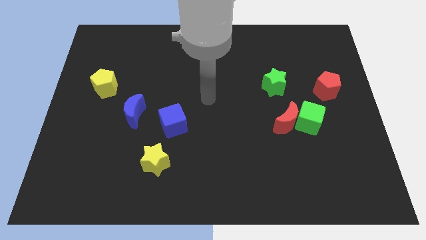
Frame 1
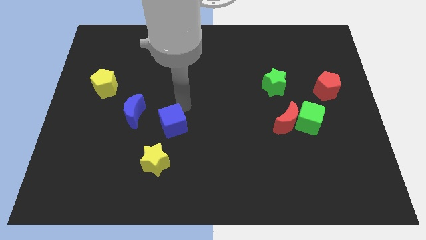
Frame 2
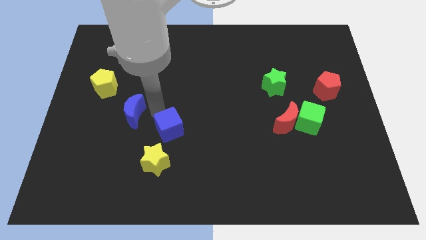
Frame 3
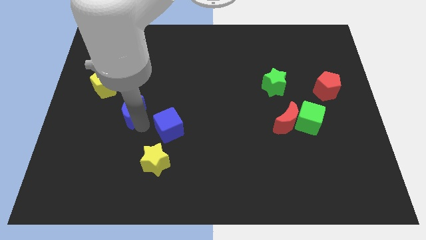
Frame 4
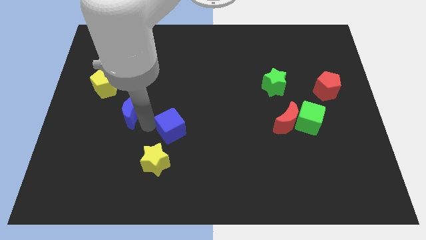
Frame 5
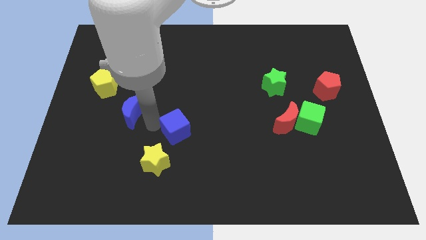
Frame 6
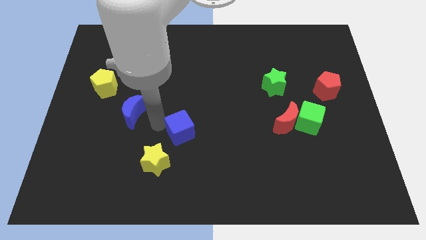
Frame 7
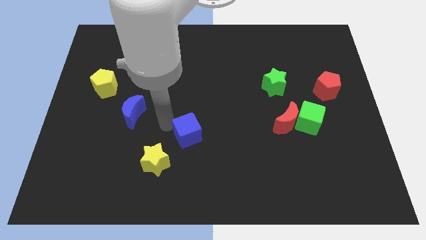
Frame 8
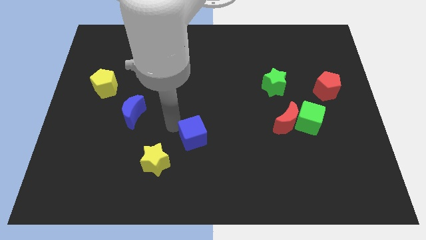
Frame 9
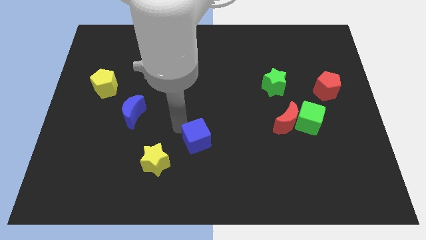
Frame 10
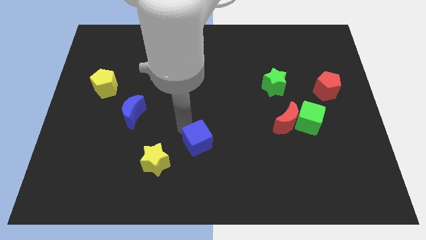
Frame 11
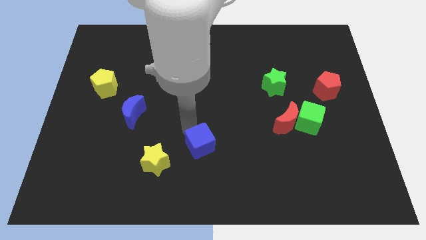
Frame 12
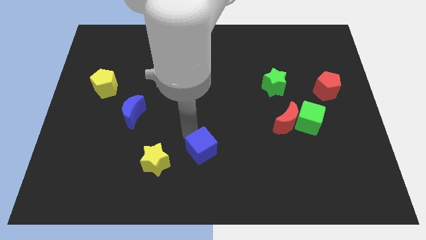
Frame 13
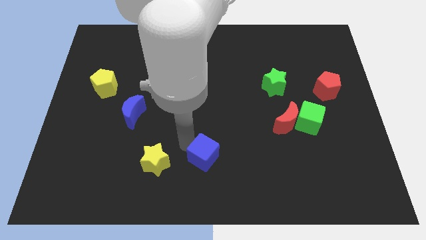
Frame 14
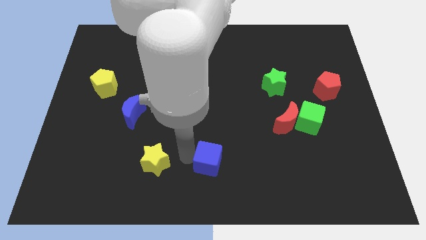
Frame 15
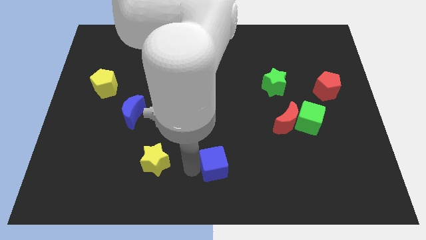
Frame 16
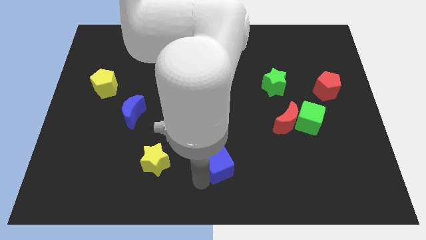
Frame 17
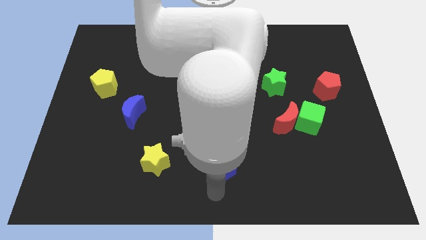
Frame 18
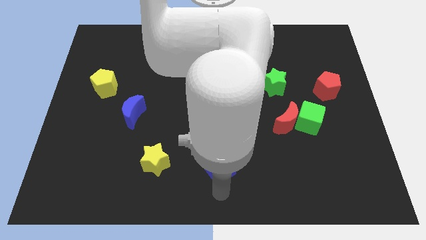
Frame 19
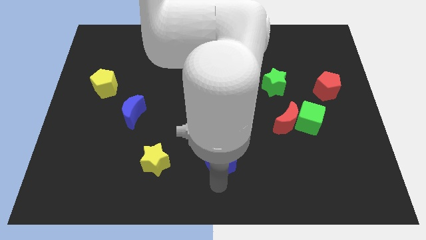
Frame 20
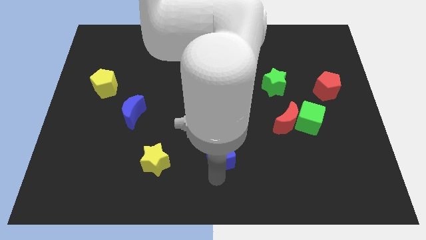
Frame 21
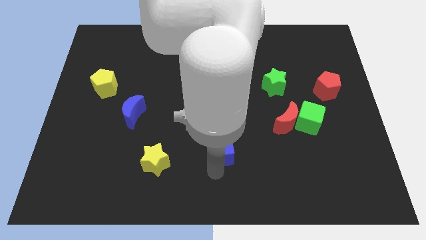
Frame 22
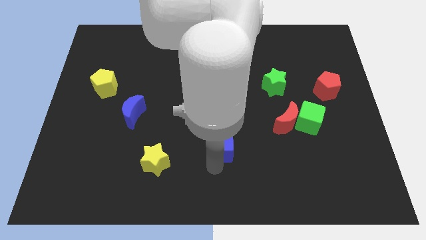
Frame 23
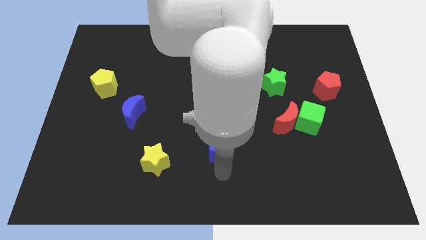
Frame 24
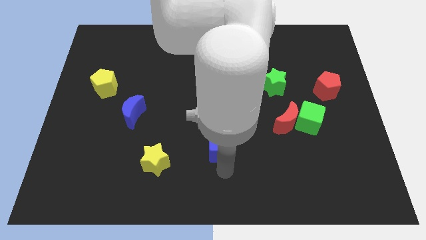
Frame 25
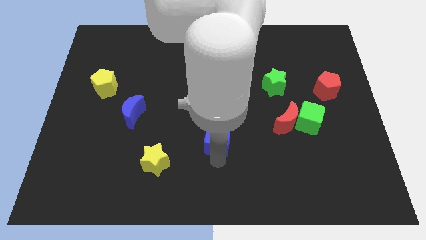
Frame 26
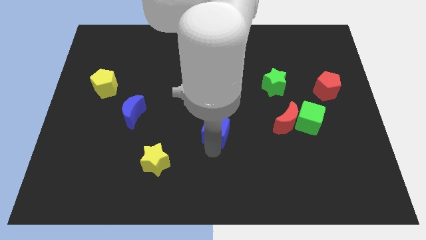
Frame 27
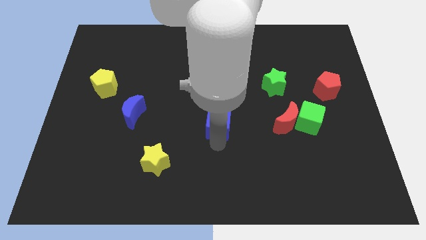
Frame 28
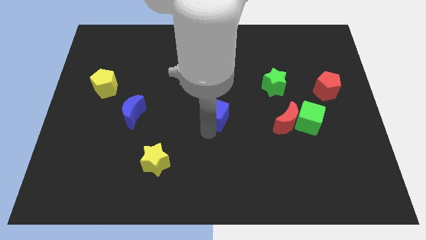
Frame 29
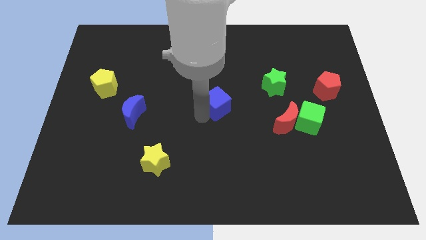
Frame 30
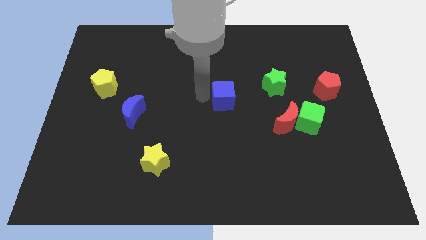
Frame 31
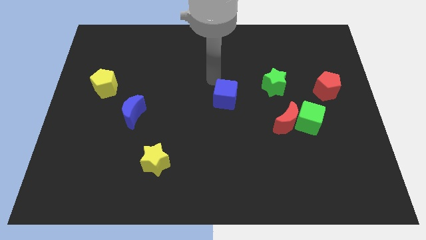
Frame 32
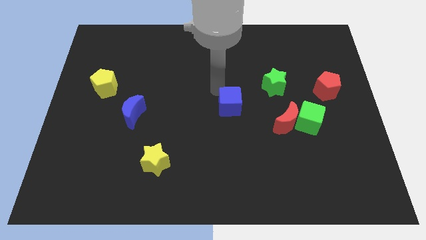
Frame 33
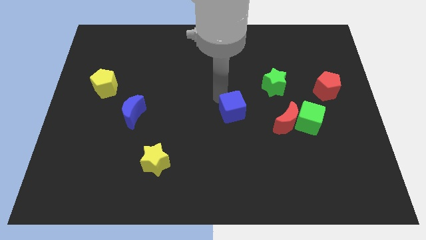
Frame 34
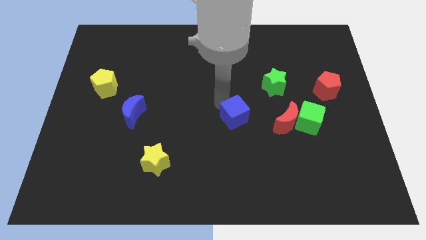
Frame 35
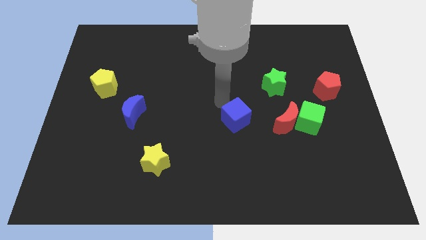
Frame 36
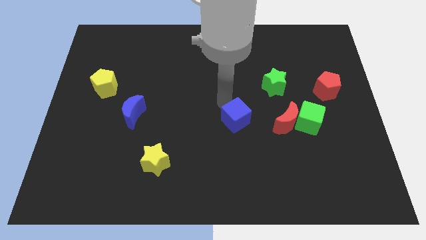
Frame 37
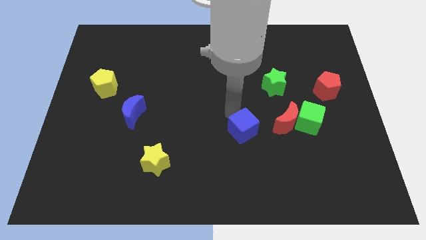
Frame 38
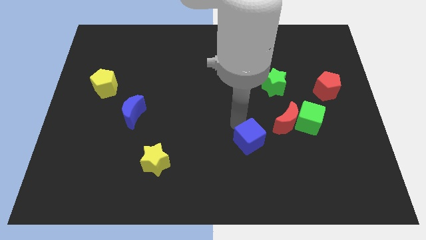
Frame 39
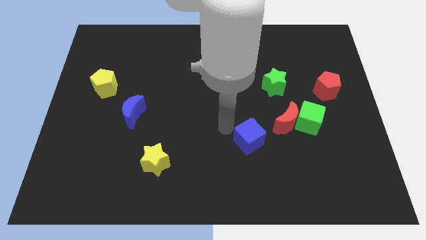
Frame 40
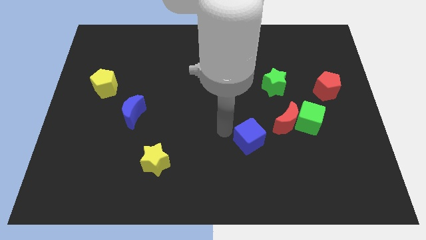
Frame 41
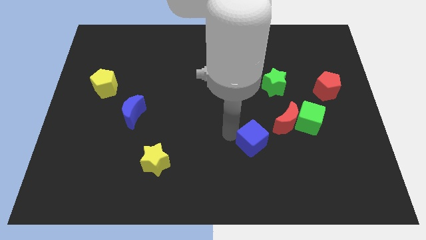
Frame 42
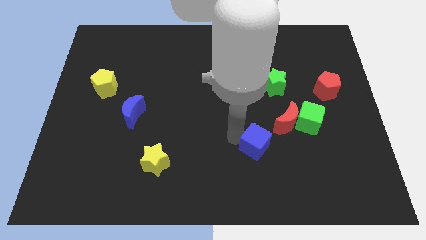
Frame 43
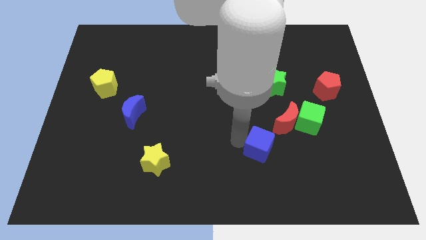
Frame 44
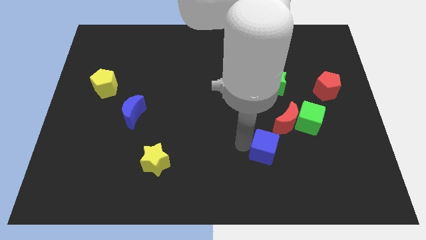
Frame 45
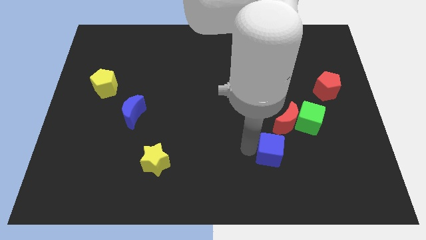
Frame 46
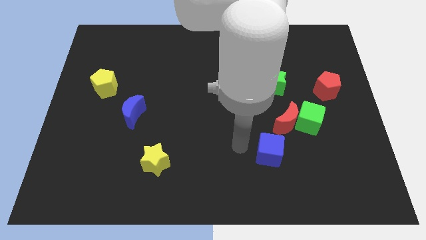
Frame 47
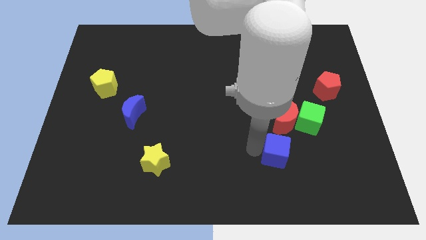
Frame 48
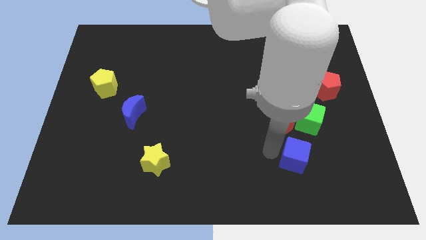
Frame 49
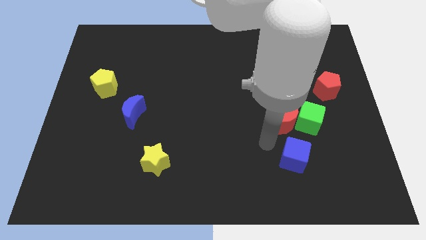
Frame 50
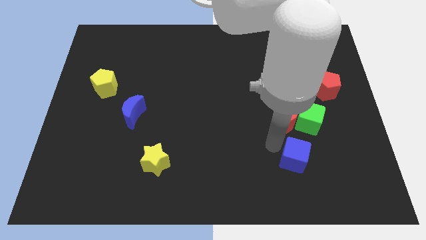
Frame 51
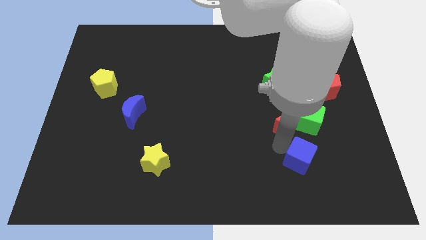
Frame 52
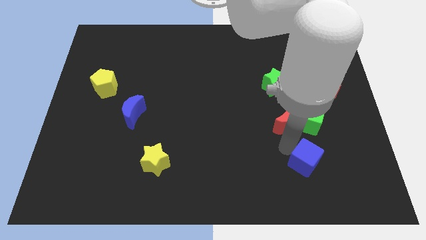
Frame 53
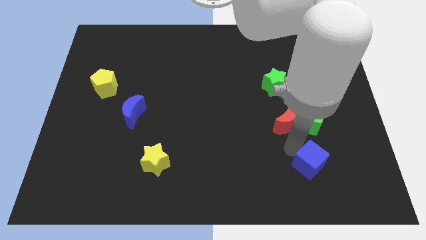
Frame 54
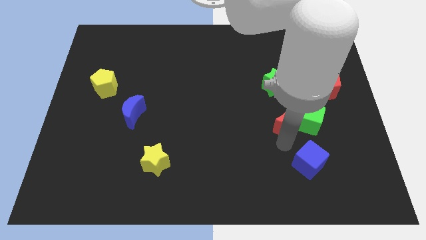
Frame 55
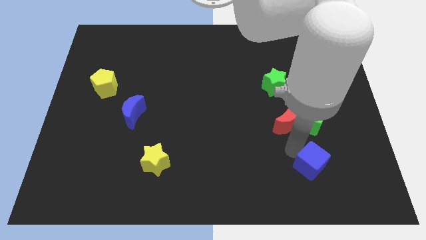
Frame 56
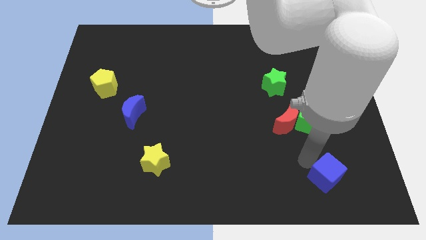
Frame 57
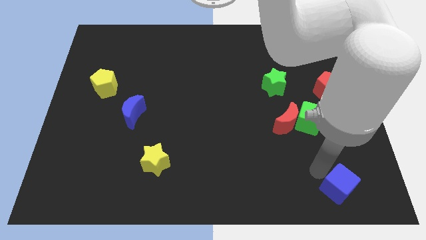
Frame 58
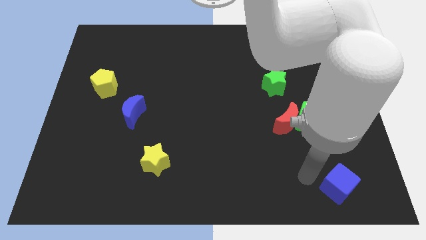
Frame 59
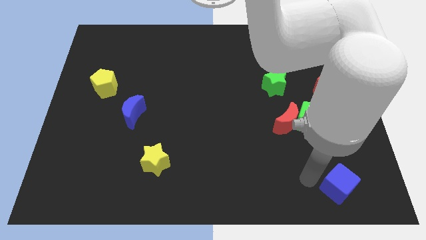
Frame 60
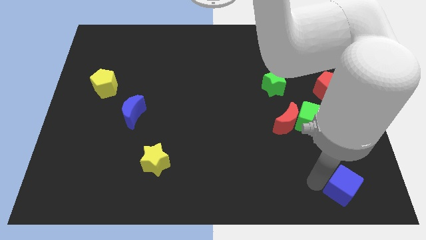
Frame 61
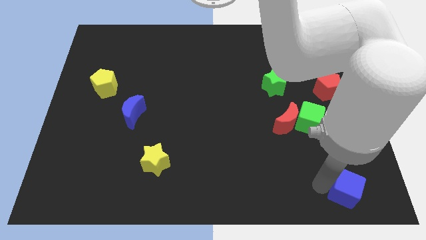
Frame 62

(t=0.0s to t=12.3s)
put the blue cube to the lower right corner
